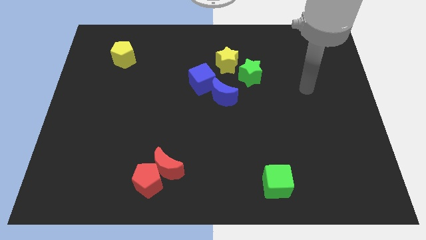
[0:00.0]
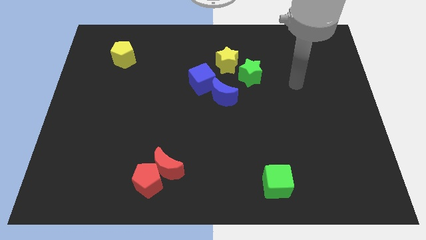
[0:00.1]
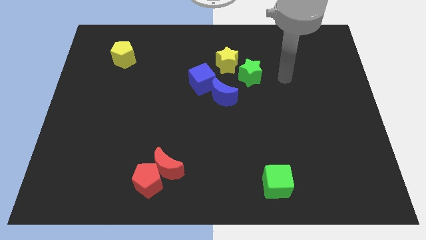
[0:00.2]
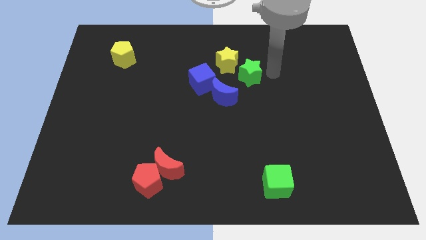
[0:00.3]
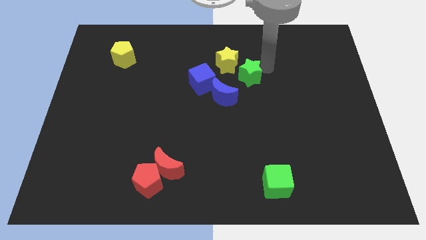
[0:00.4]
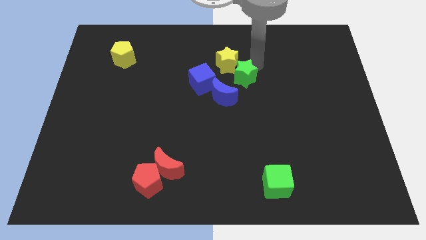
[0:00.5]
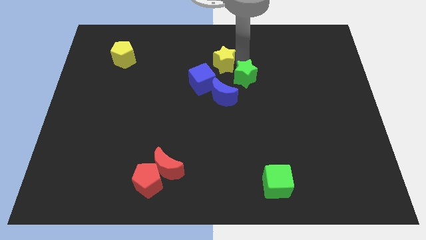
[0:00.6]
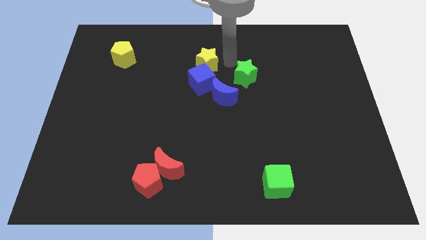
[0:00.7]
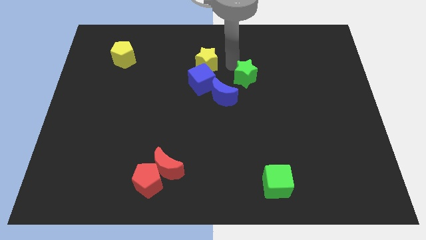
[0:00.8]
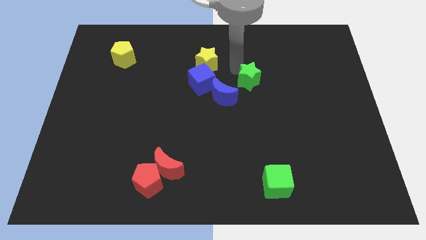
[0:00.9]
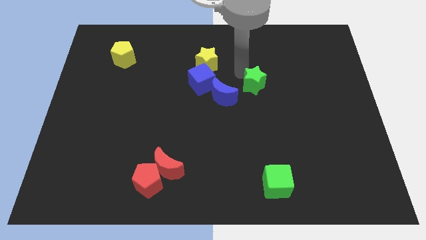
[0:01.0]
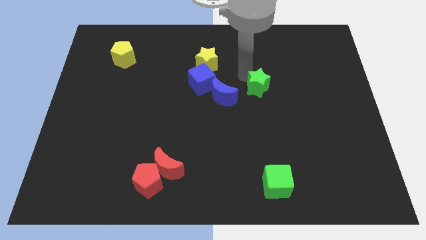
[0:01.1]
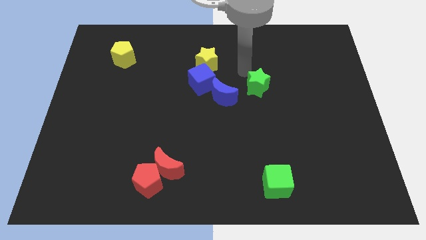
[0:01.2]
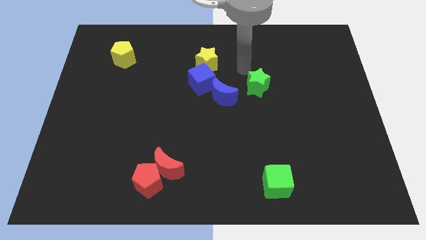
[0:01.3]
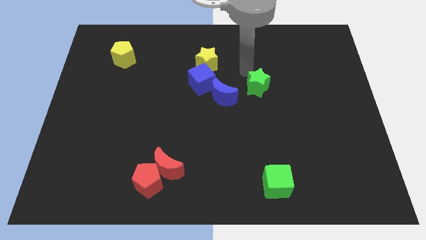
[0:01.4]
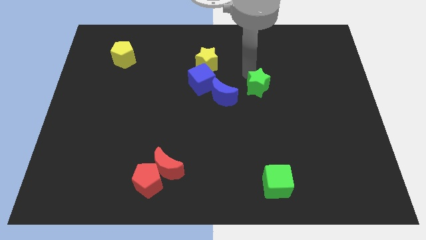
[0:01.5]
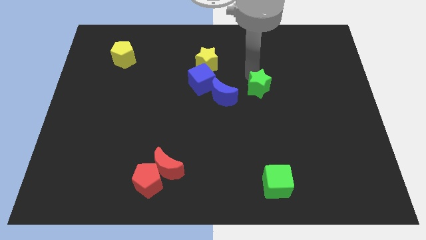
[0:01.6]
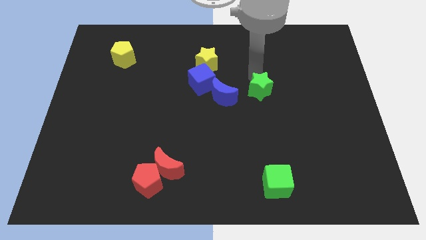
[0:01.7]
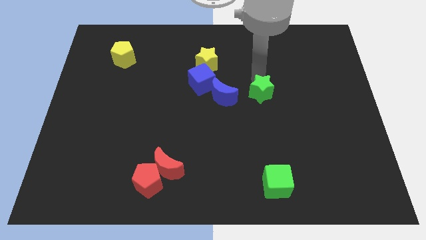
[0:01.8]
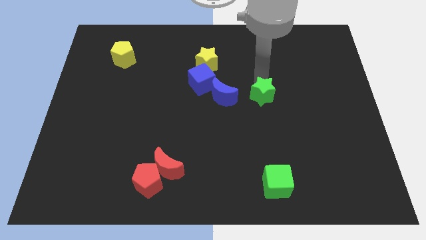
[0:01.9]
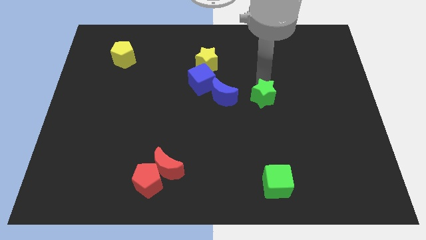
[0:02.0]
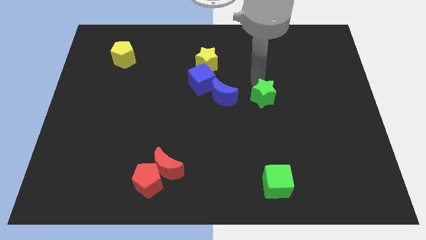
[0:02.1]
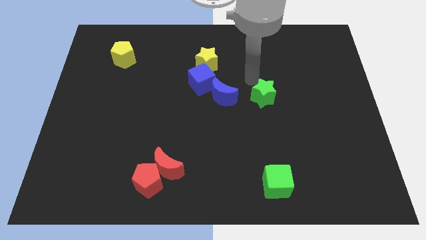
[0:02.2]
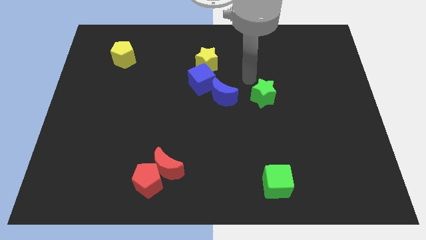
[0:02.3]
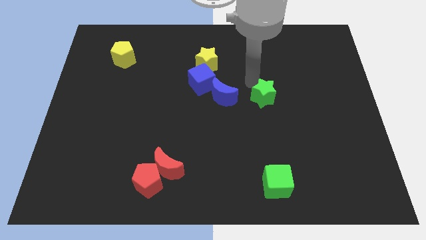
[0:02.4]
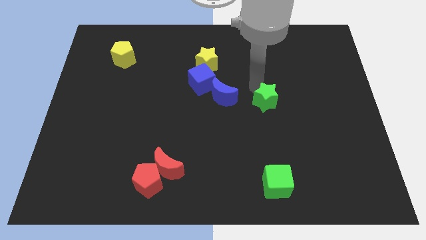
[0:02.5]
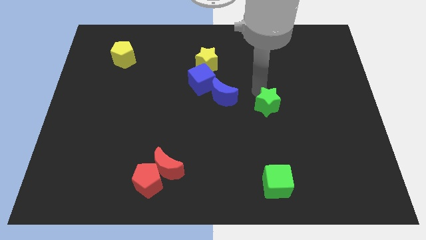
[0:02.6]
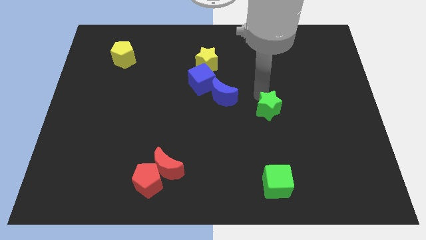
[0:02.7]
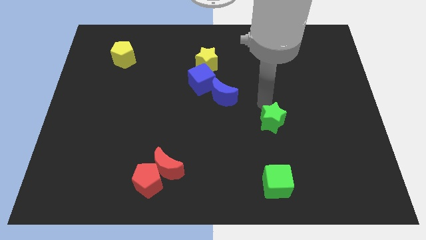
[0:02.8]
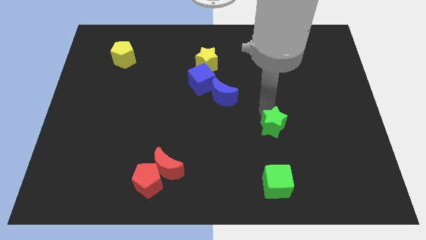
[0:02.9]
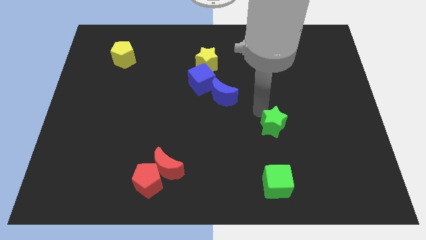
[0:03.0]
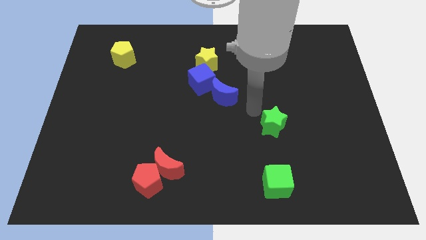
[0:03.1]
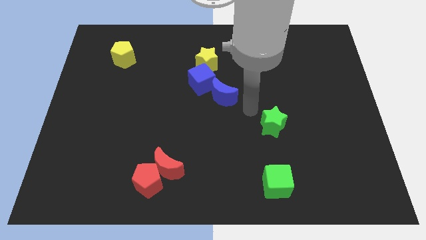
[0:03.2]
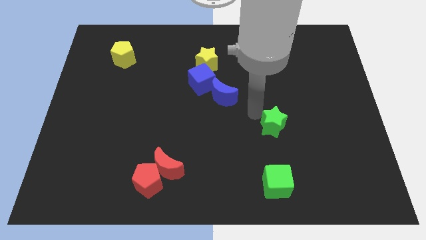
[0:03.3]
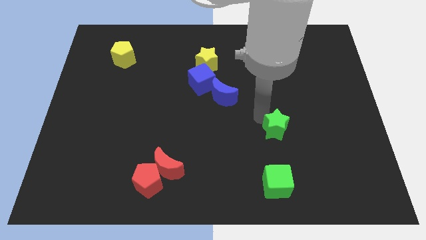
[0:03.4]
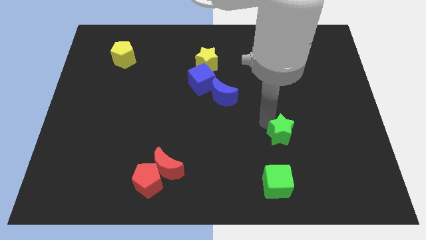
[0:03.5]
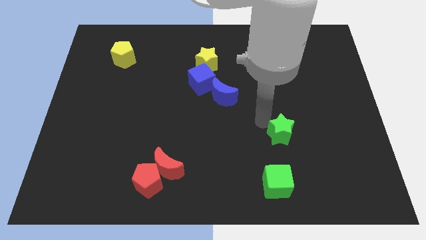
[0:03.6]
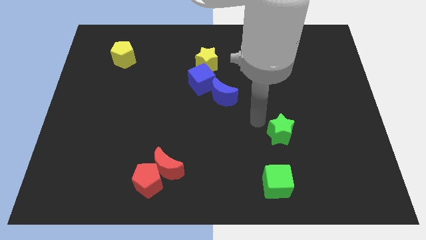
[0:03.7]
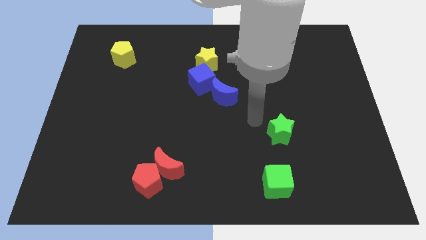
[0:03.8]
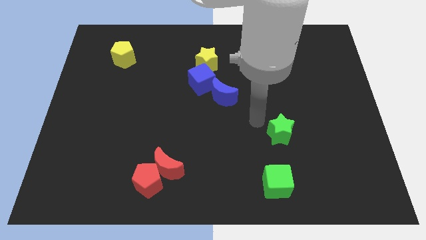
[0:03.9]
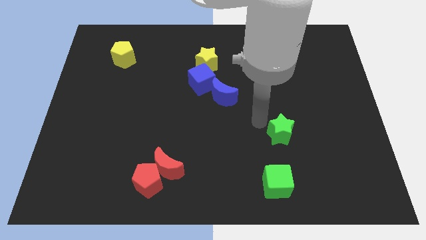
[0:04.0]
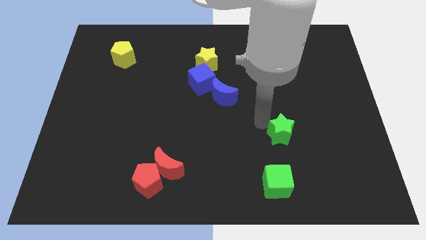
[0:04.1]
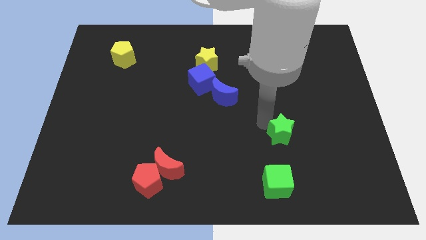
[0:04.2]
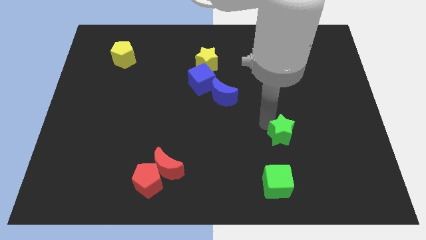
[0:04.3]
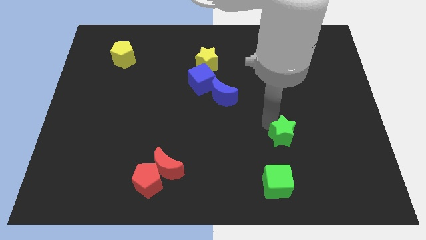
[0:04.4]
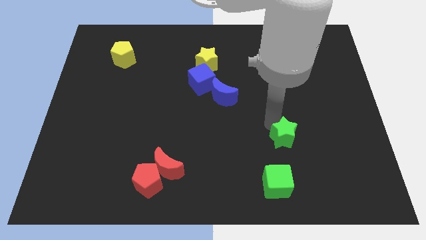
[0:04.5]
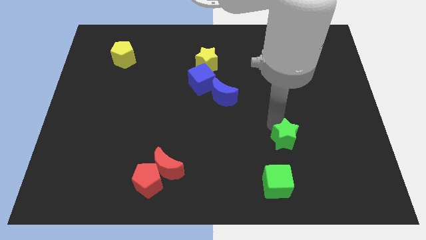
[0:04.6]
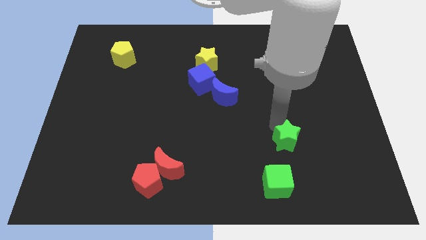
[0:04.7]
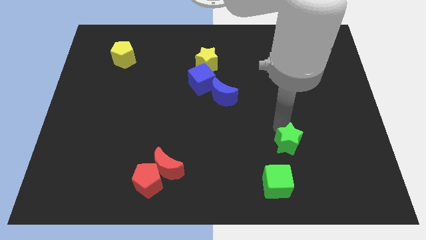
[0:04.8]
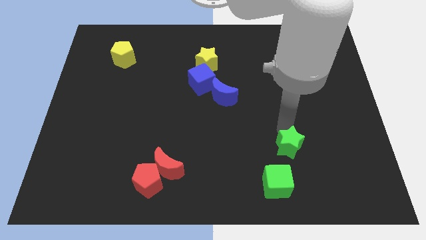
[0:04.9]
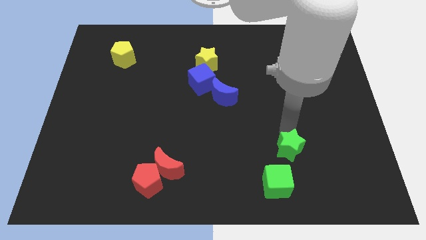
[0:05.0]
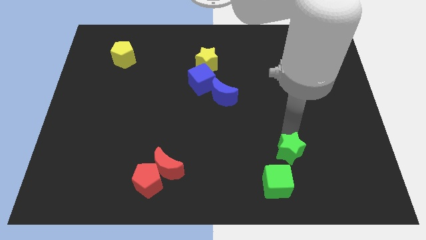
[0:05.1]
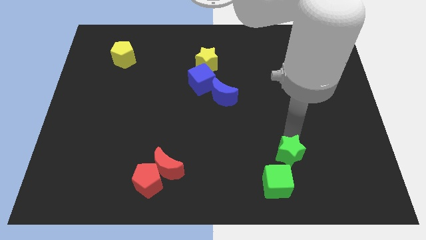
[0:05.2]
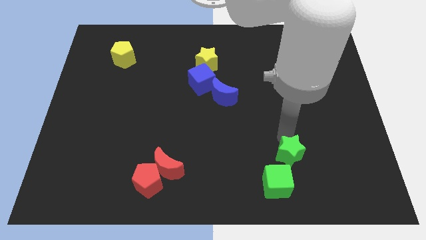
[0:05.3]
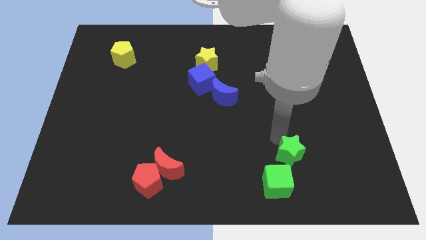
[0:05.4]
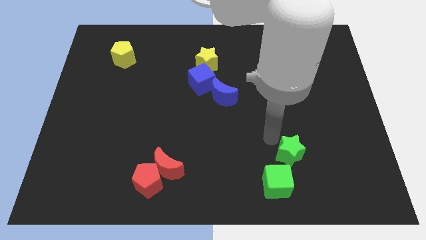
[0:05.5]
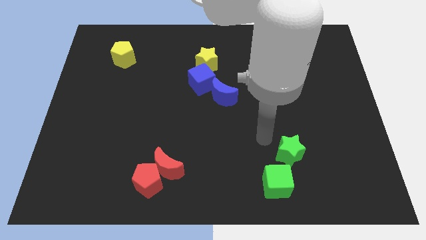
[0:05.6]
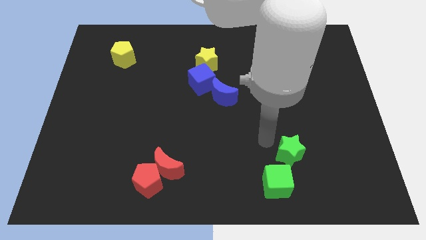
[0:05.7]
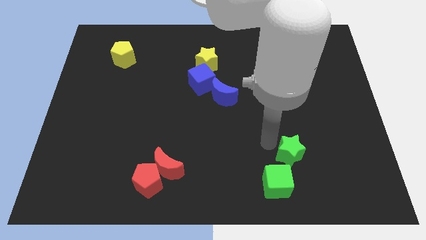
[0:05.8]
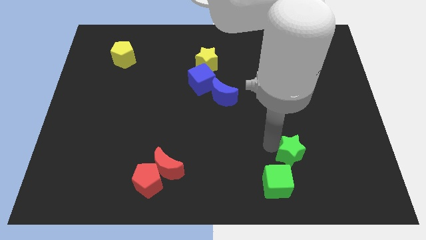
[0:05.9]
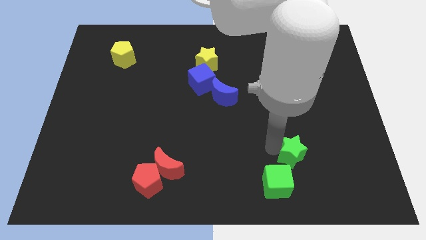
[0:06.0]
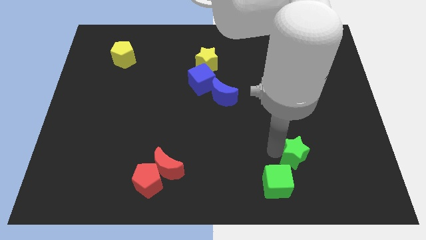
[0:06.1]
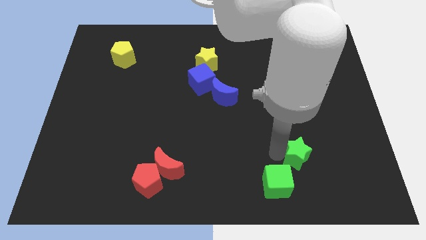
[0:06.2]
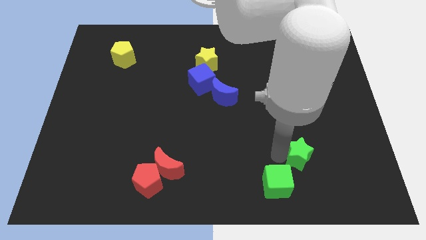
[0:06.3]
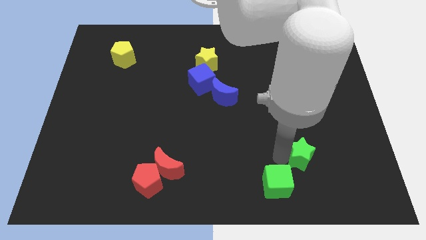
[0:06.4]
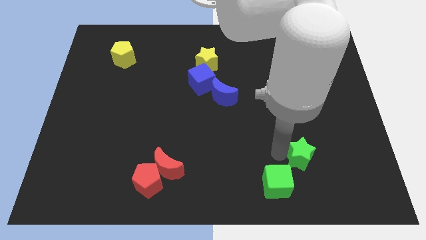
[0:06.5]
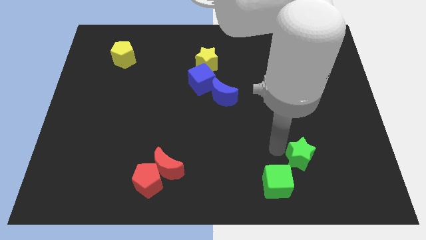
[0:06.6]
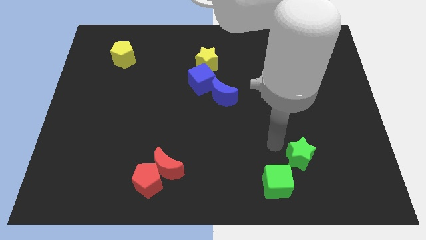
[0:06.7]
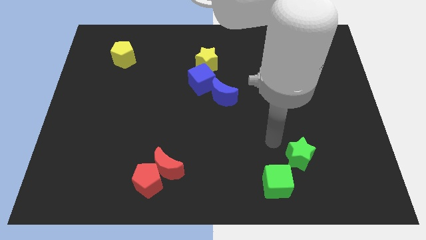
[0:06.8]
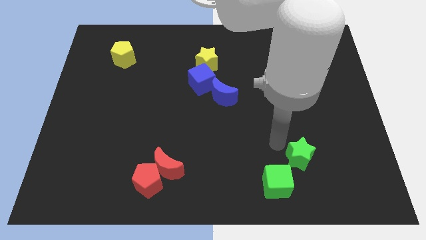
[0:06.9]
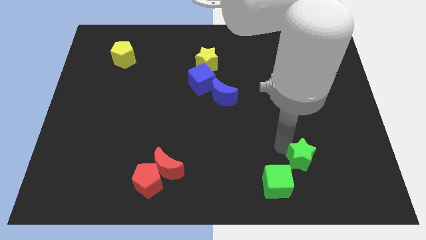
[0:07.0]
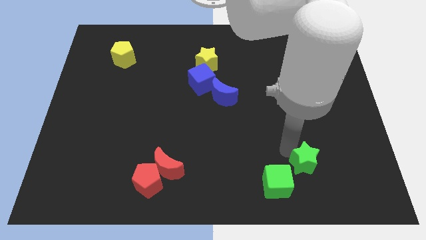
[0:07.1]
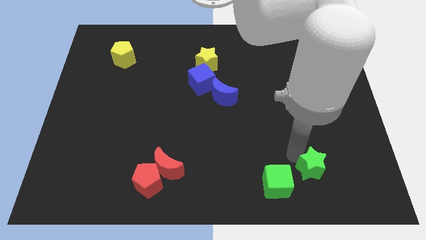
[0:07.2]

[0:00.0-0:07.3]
push the green star just right of the green cube

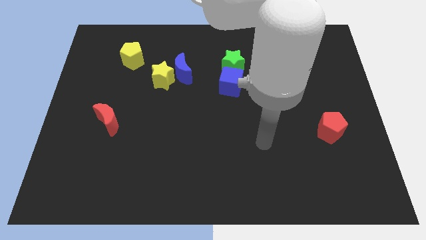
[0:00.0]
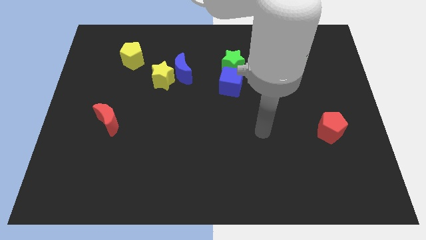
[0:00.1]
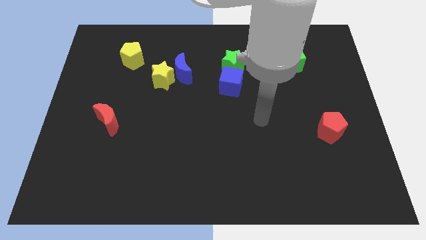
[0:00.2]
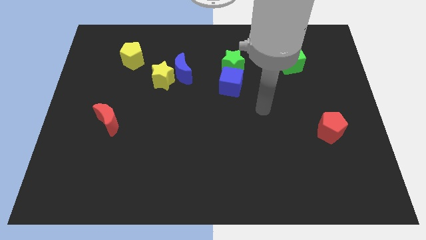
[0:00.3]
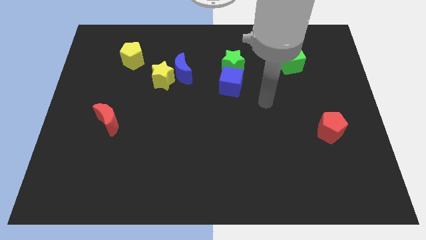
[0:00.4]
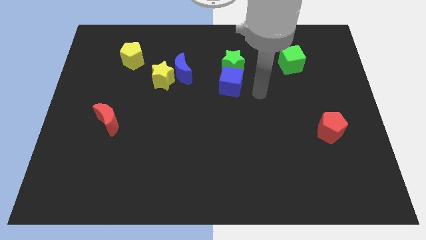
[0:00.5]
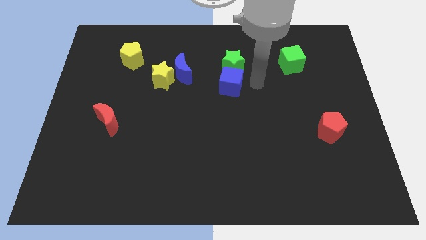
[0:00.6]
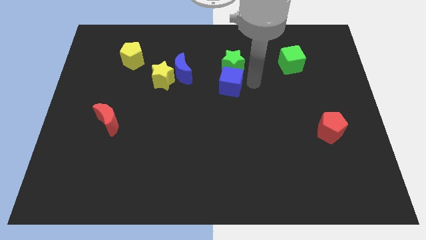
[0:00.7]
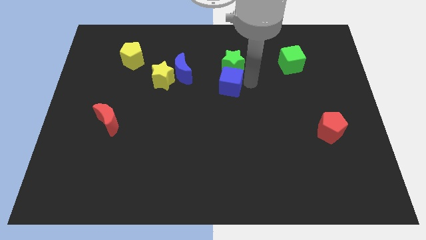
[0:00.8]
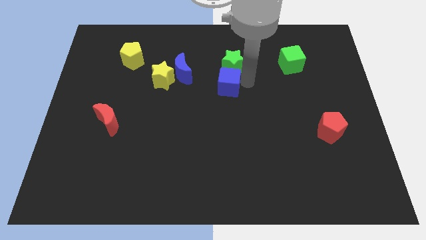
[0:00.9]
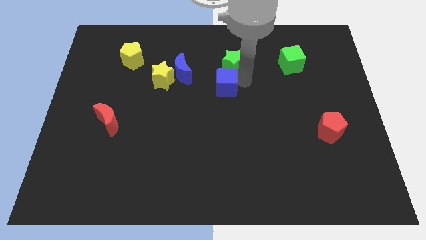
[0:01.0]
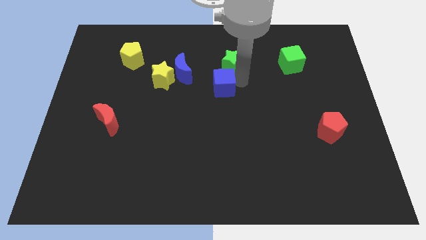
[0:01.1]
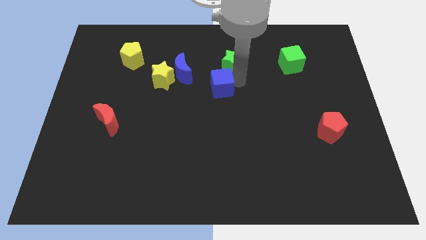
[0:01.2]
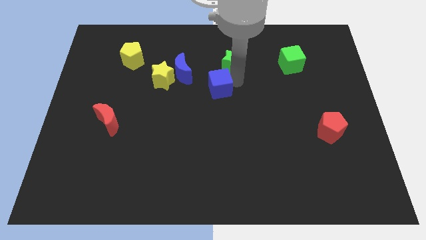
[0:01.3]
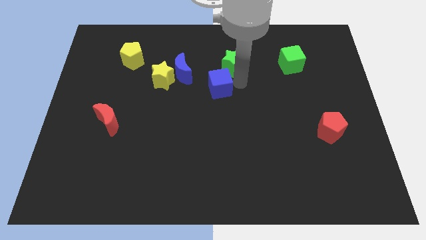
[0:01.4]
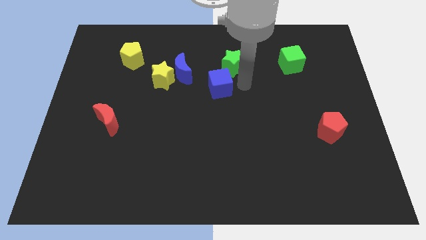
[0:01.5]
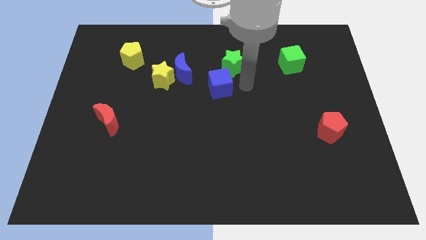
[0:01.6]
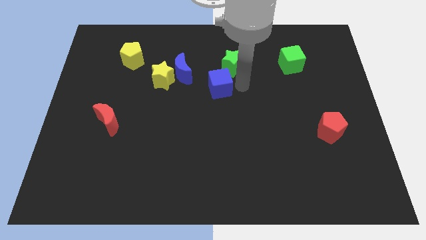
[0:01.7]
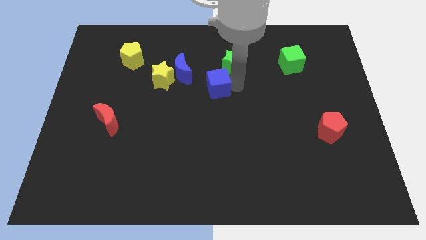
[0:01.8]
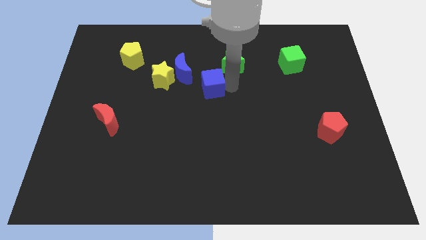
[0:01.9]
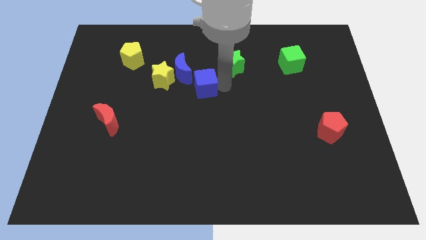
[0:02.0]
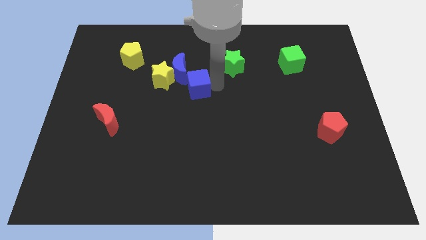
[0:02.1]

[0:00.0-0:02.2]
push the blue cube to the bottom right of the yellow star
